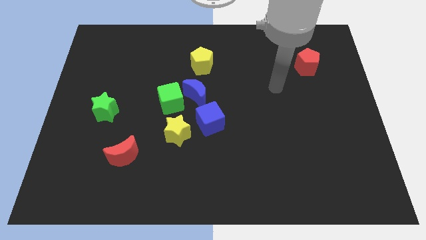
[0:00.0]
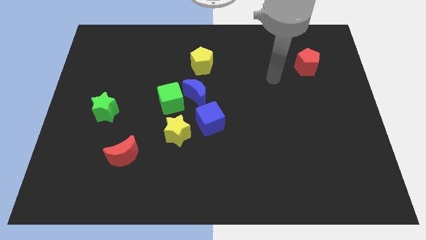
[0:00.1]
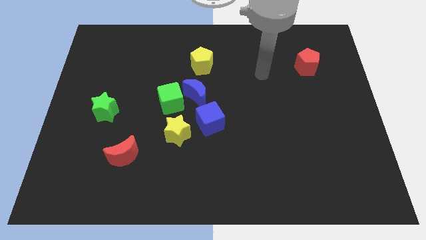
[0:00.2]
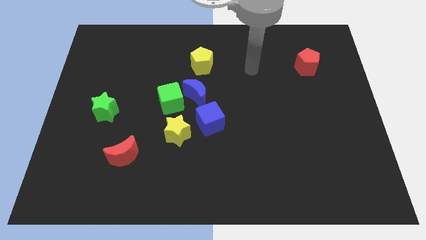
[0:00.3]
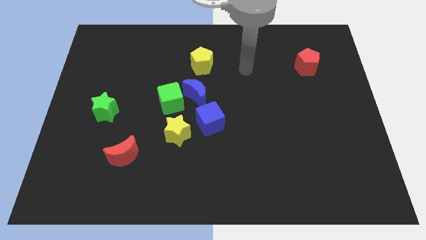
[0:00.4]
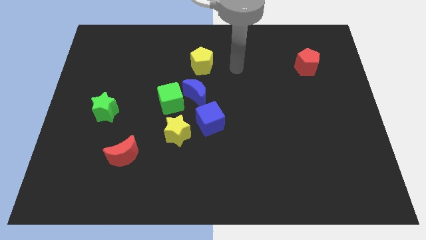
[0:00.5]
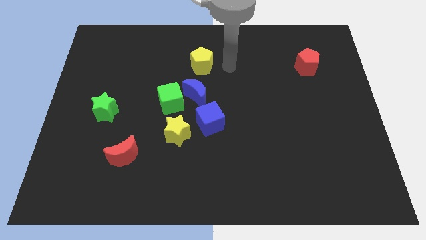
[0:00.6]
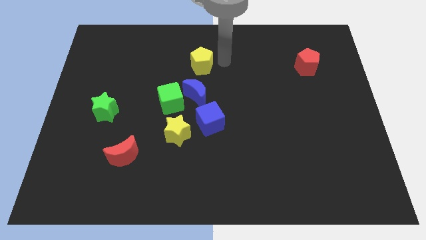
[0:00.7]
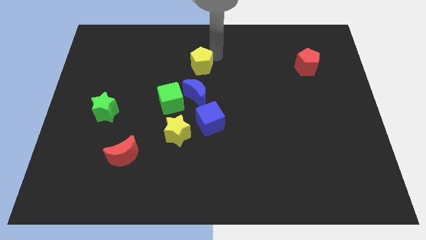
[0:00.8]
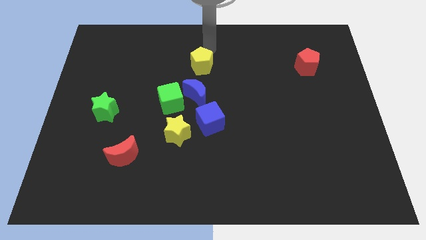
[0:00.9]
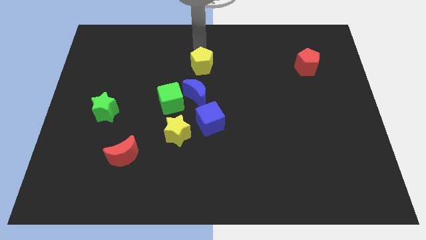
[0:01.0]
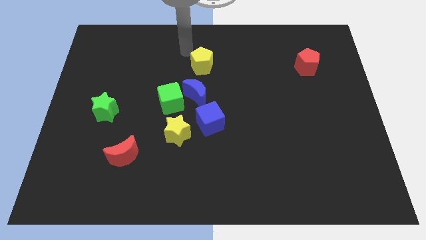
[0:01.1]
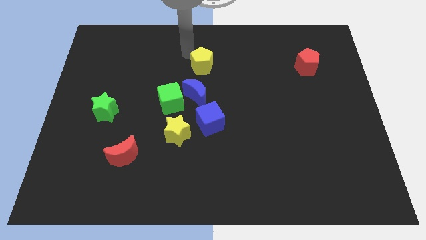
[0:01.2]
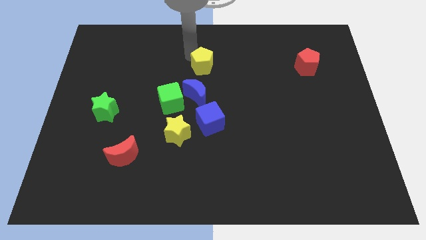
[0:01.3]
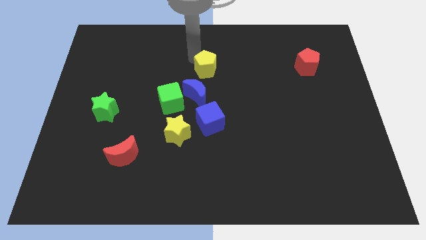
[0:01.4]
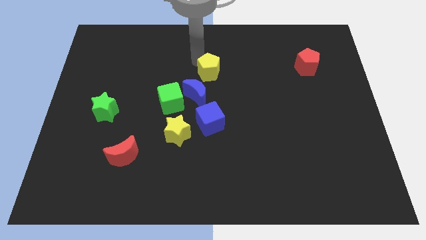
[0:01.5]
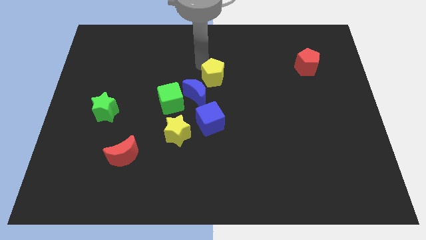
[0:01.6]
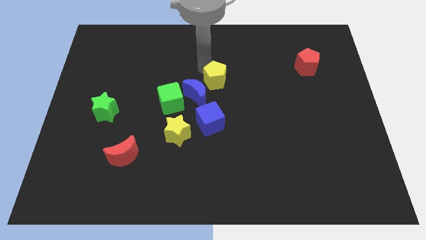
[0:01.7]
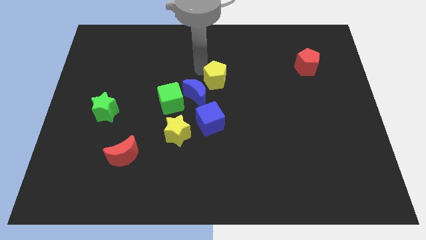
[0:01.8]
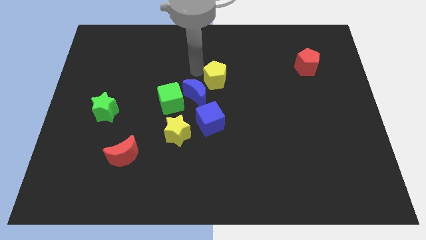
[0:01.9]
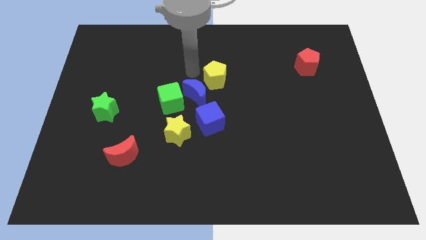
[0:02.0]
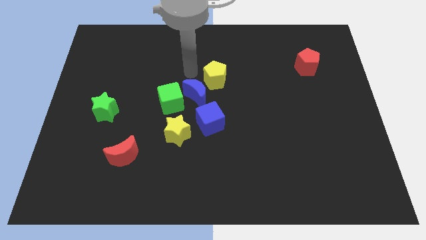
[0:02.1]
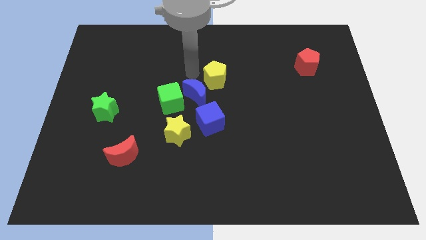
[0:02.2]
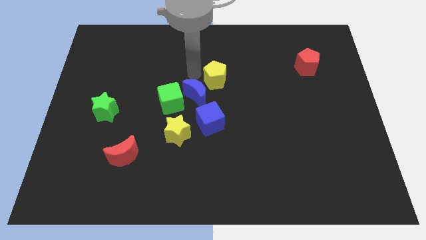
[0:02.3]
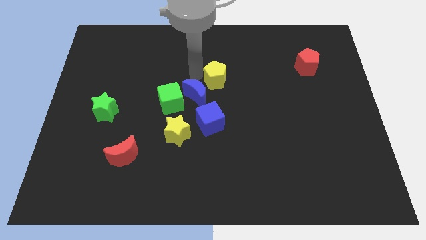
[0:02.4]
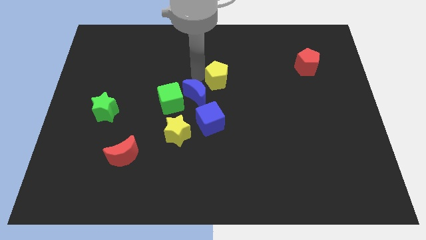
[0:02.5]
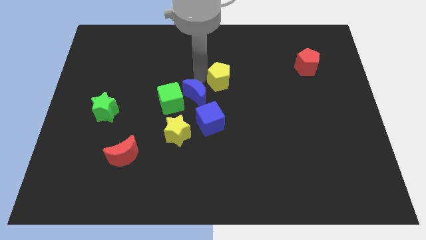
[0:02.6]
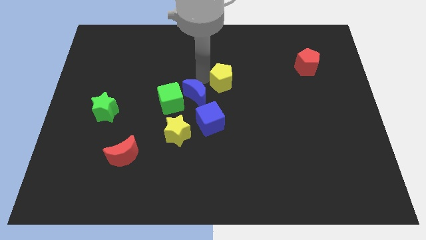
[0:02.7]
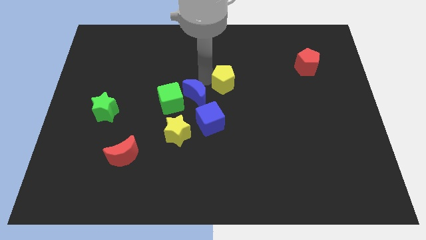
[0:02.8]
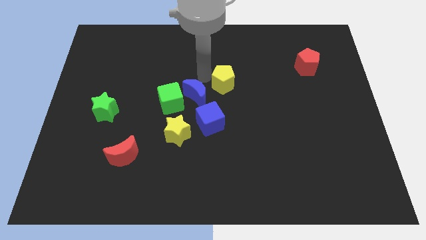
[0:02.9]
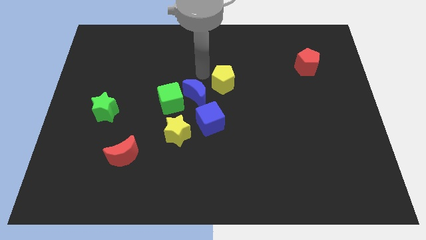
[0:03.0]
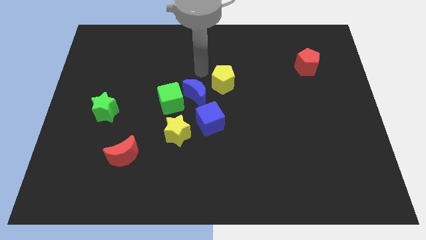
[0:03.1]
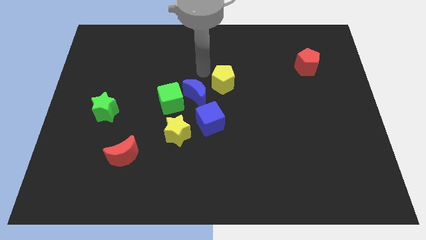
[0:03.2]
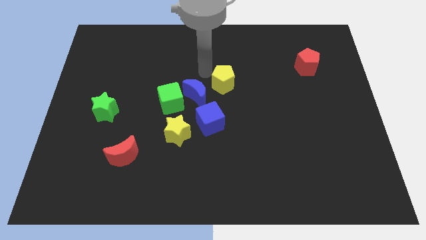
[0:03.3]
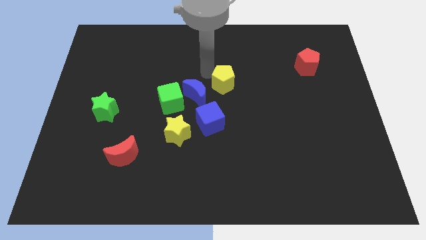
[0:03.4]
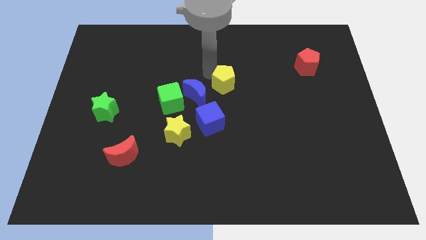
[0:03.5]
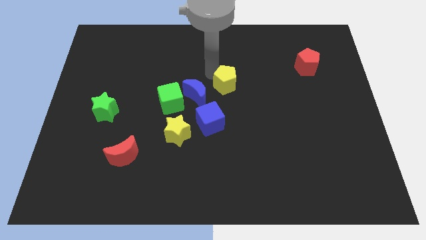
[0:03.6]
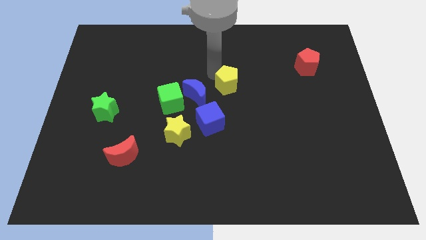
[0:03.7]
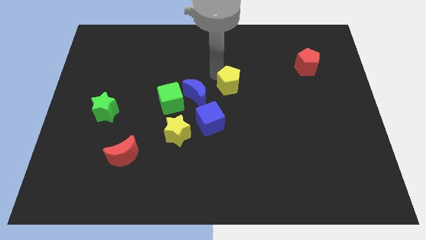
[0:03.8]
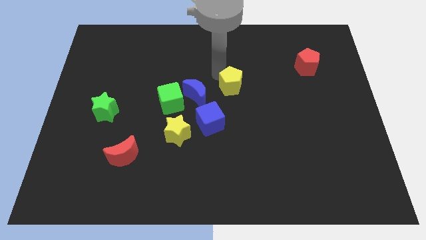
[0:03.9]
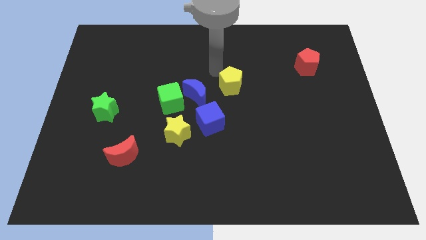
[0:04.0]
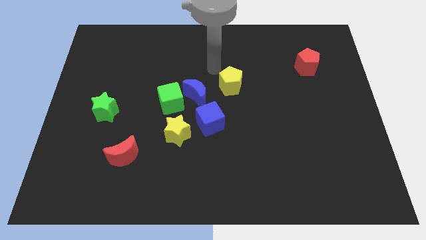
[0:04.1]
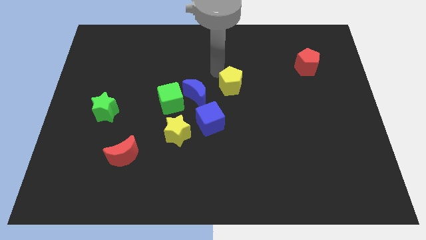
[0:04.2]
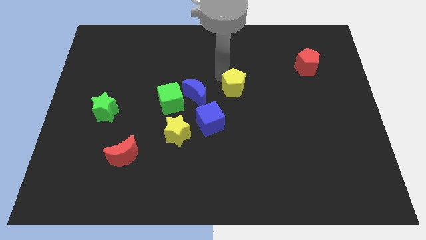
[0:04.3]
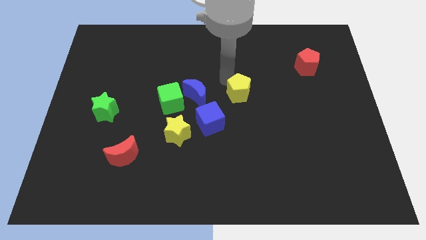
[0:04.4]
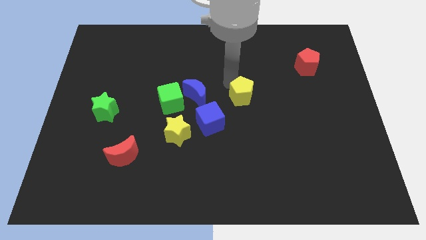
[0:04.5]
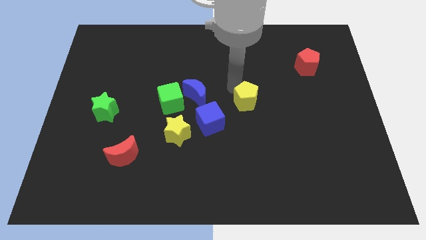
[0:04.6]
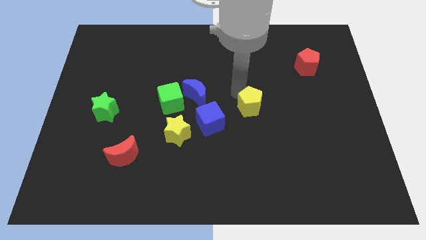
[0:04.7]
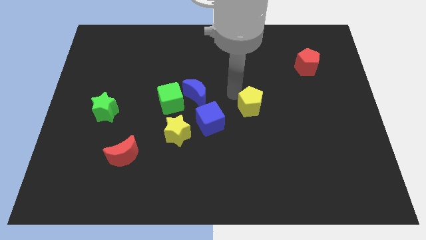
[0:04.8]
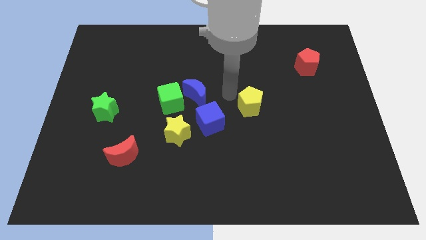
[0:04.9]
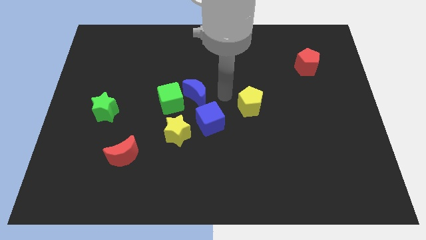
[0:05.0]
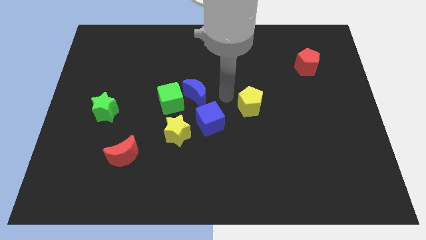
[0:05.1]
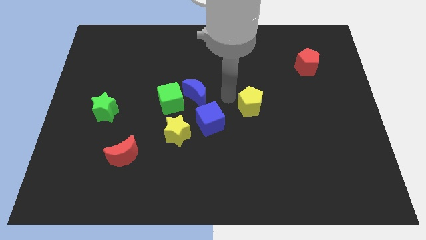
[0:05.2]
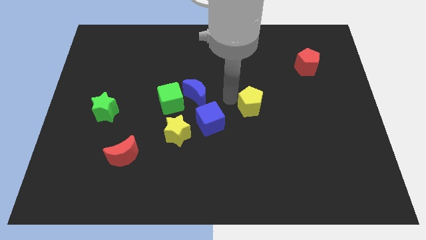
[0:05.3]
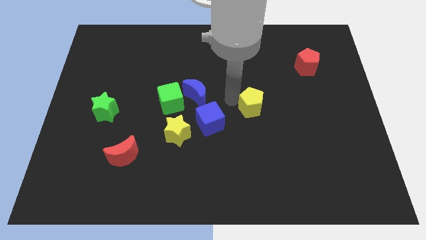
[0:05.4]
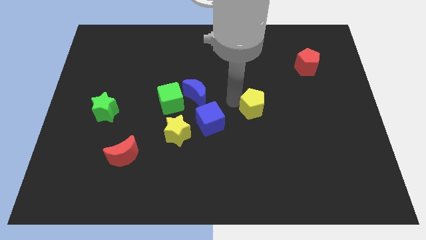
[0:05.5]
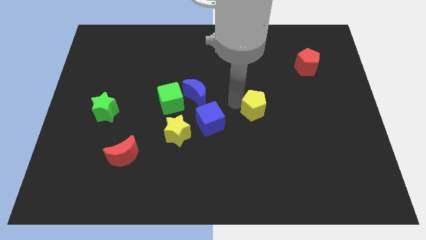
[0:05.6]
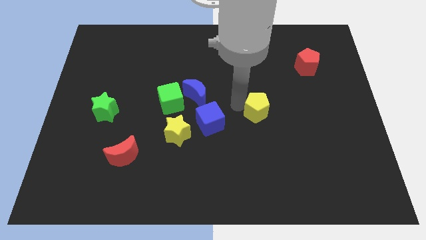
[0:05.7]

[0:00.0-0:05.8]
slide the yellow pentagon down and to the right

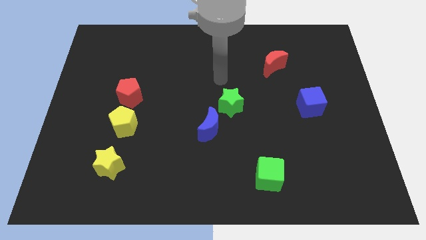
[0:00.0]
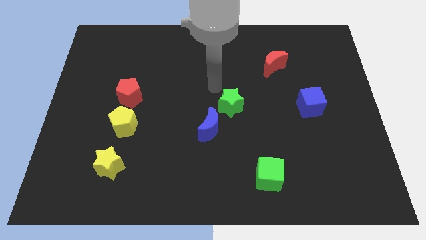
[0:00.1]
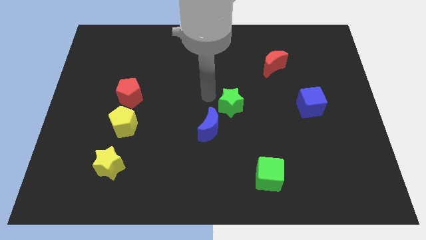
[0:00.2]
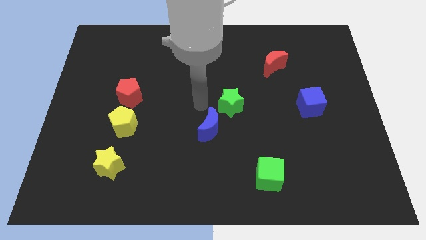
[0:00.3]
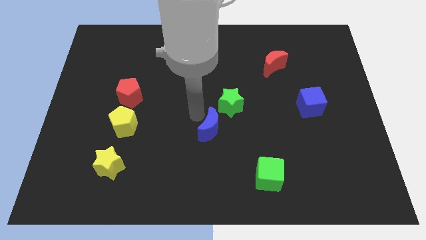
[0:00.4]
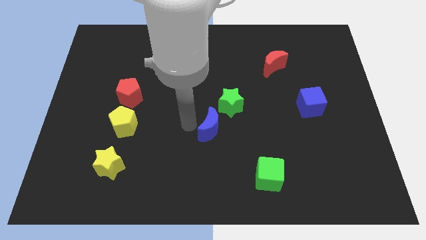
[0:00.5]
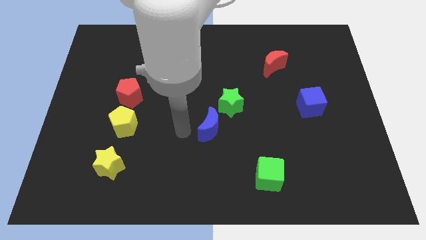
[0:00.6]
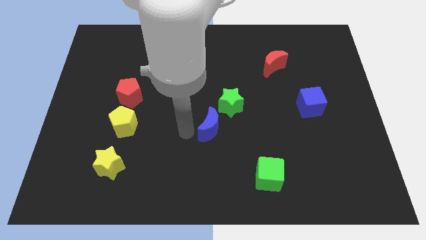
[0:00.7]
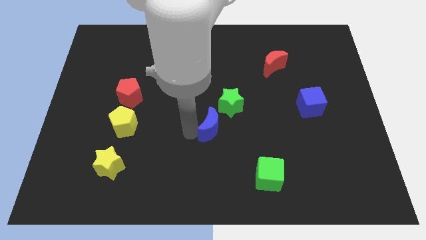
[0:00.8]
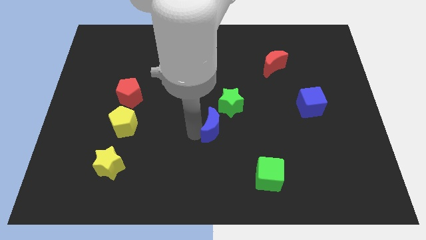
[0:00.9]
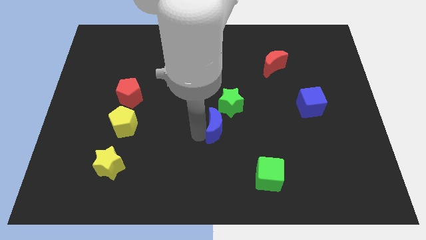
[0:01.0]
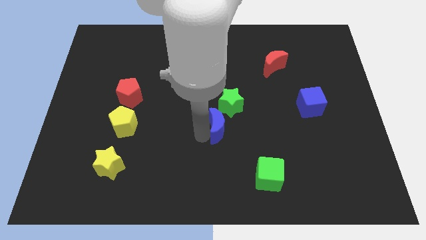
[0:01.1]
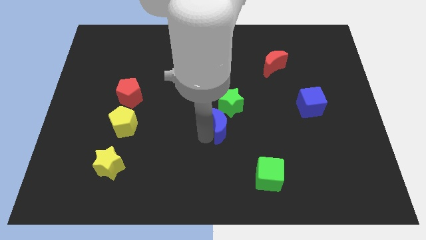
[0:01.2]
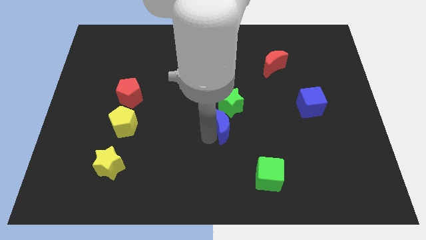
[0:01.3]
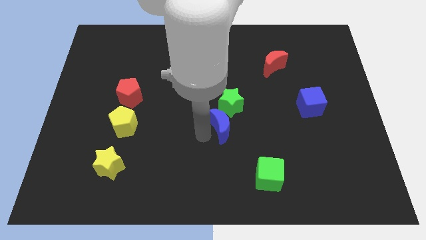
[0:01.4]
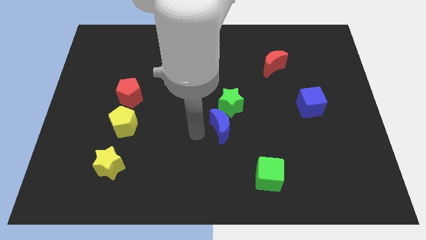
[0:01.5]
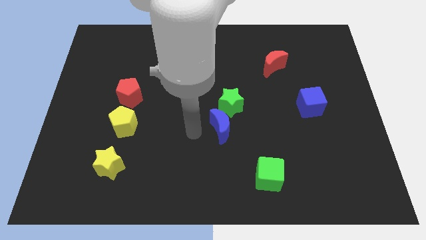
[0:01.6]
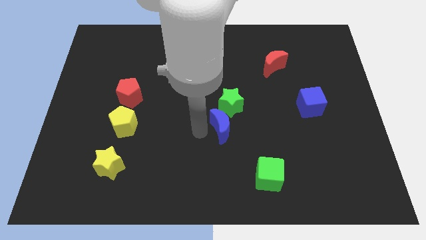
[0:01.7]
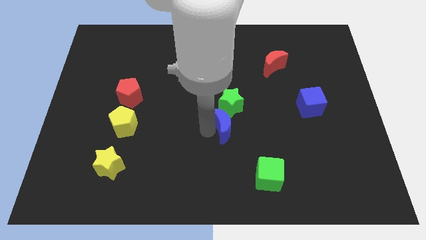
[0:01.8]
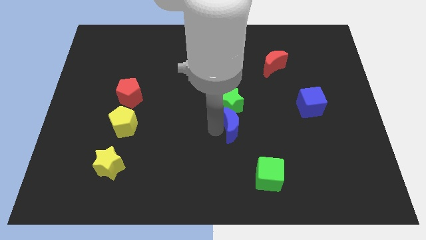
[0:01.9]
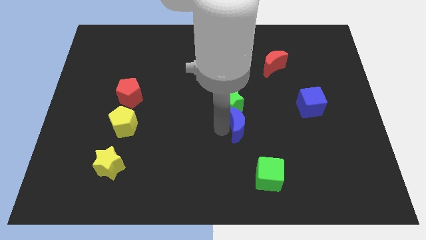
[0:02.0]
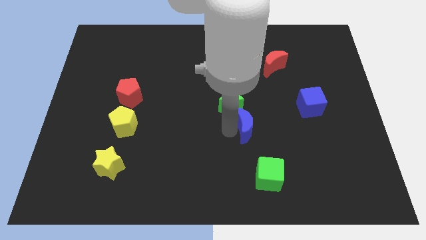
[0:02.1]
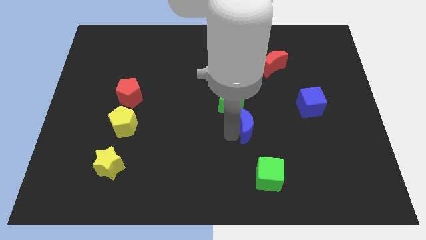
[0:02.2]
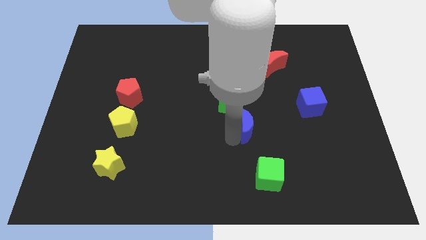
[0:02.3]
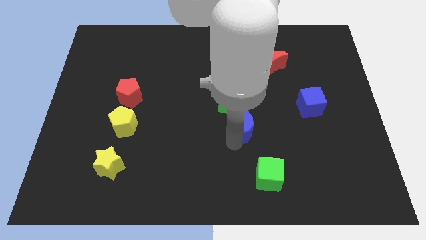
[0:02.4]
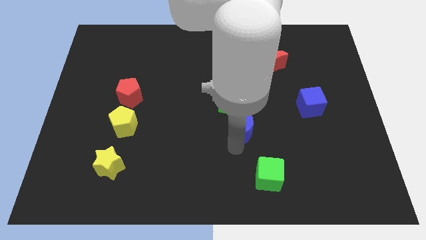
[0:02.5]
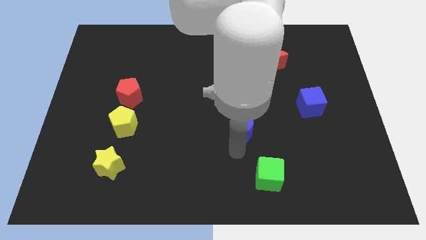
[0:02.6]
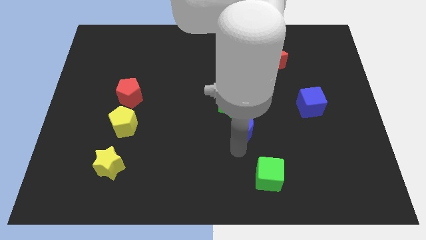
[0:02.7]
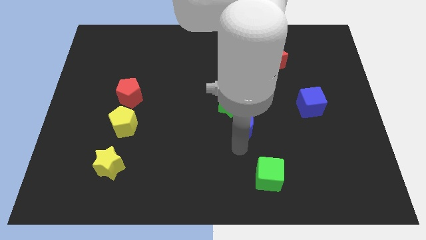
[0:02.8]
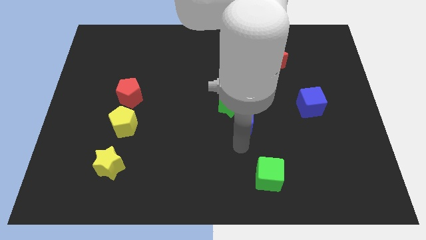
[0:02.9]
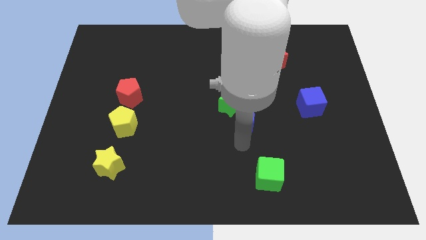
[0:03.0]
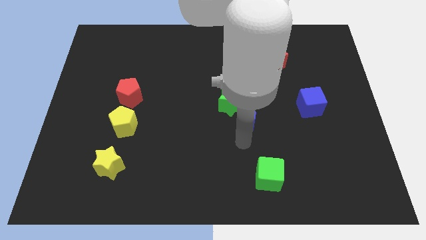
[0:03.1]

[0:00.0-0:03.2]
push the blue moon slightly upwards and to the right diagonally

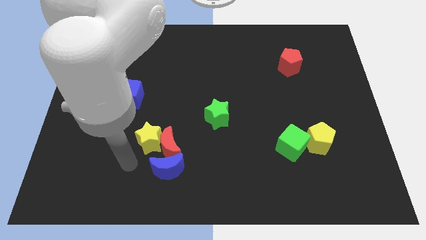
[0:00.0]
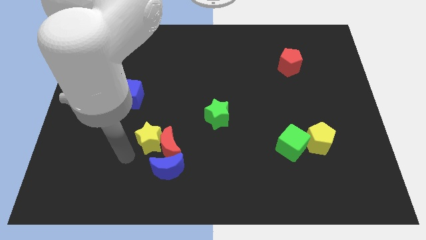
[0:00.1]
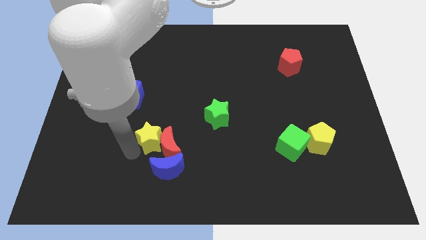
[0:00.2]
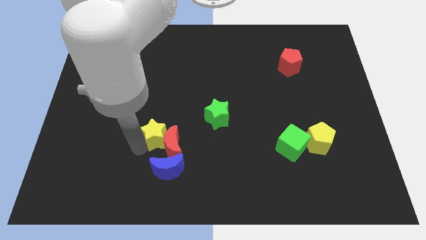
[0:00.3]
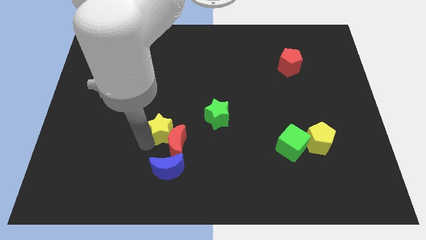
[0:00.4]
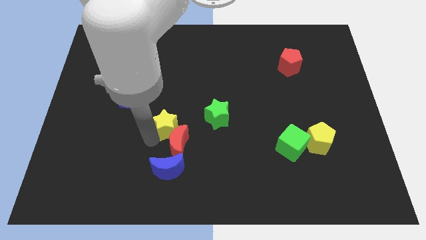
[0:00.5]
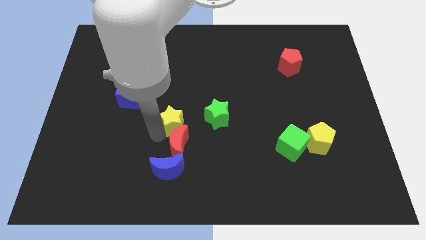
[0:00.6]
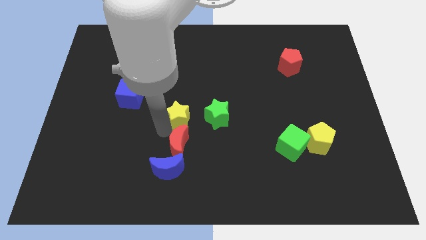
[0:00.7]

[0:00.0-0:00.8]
push the yellow star a little up and to the right diagonally
